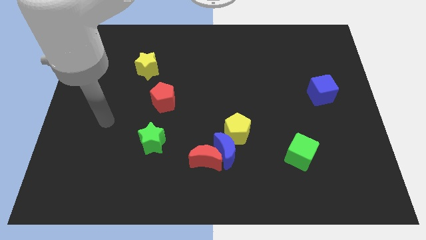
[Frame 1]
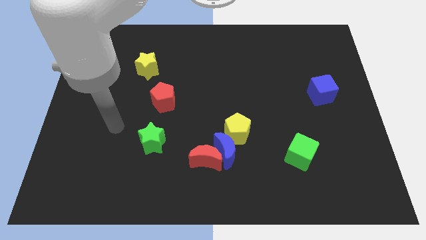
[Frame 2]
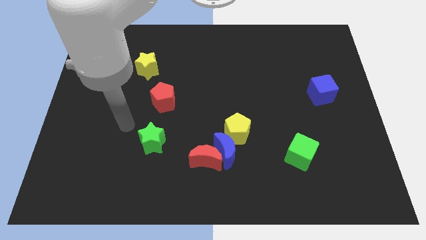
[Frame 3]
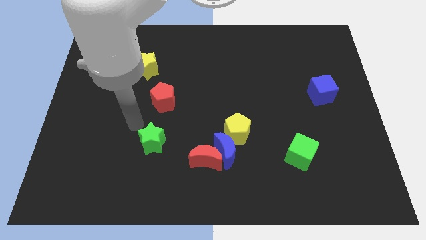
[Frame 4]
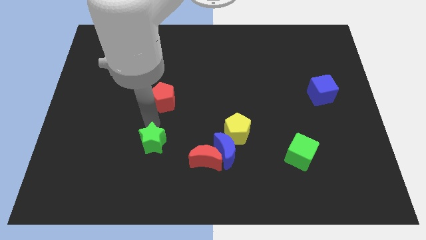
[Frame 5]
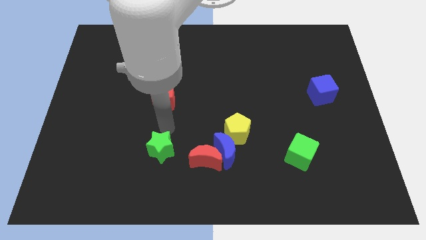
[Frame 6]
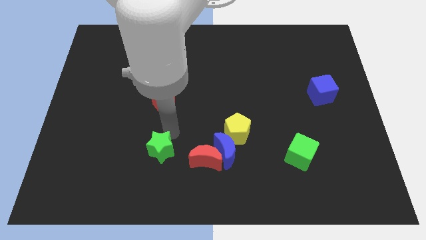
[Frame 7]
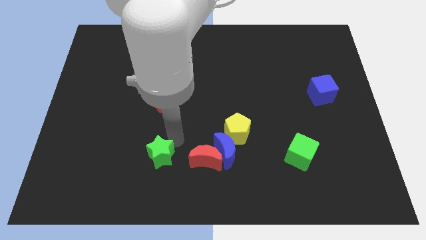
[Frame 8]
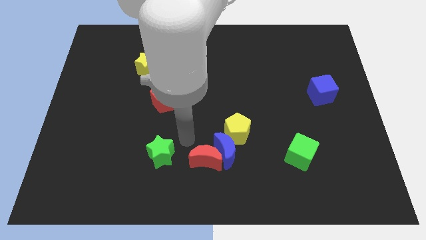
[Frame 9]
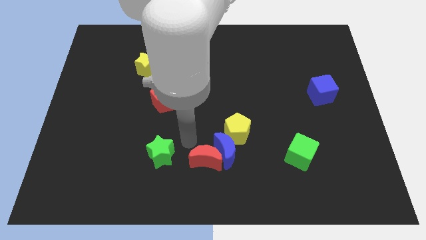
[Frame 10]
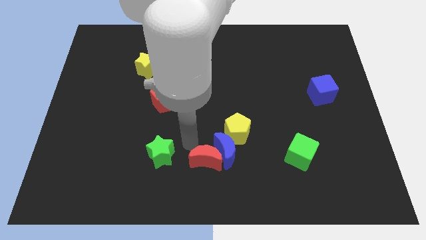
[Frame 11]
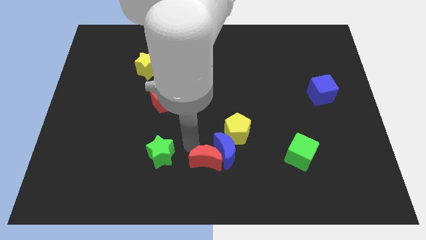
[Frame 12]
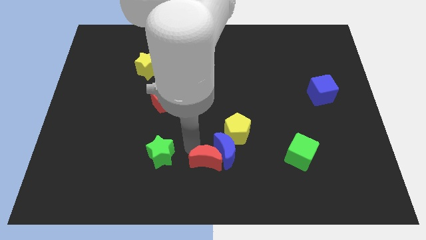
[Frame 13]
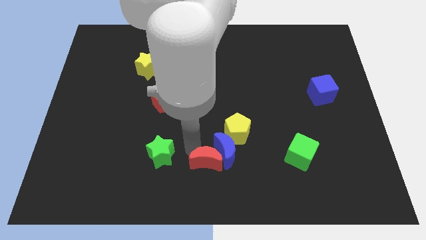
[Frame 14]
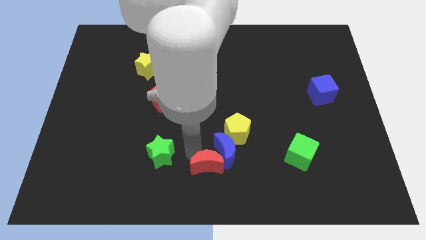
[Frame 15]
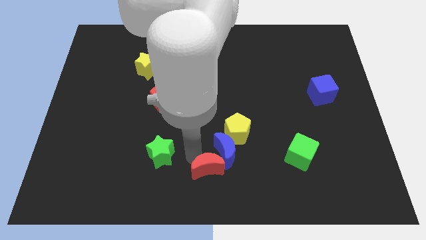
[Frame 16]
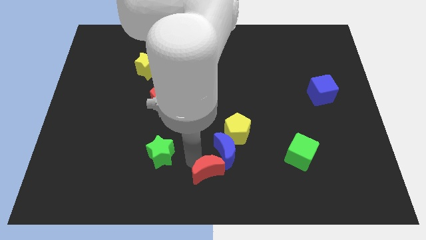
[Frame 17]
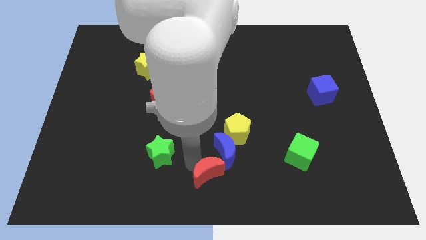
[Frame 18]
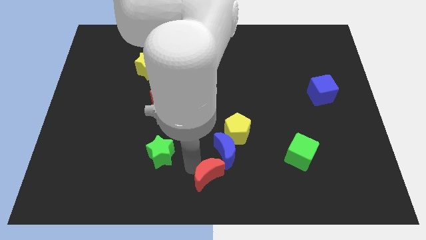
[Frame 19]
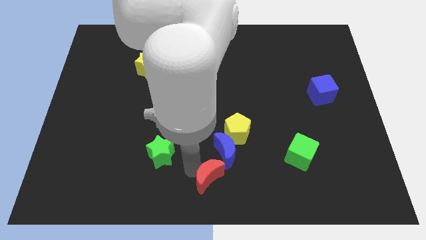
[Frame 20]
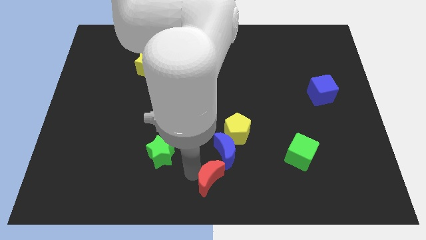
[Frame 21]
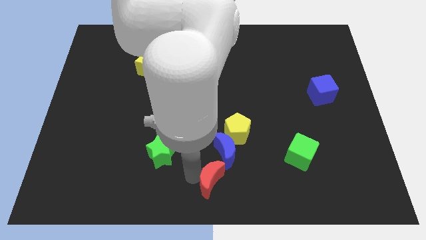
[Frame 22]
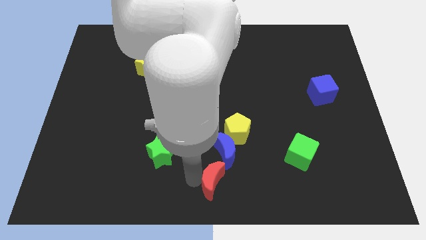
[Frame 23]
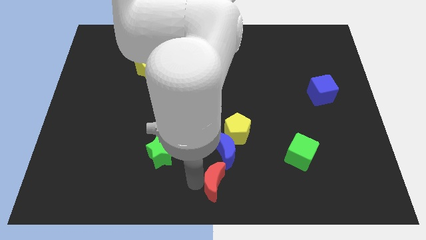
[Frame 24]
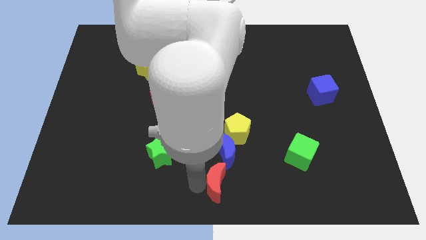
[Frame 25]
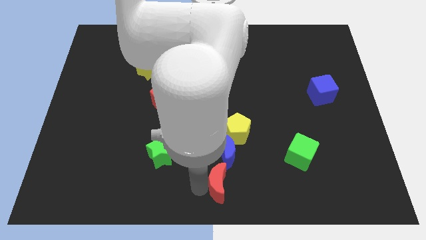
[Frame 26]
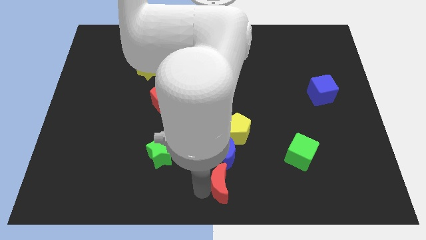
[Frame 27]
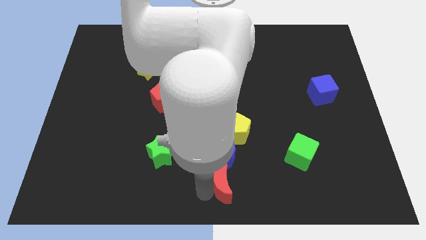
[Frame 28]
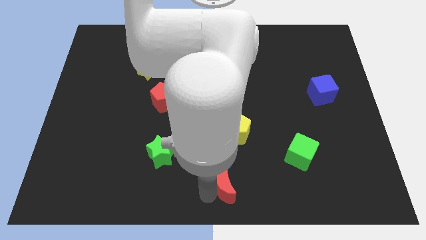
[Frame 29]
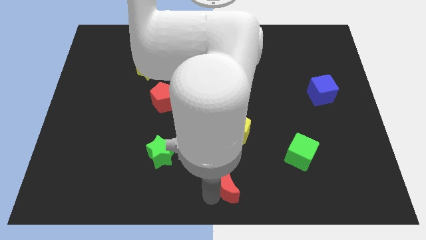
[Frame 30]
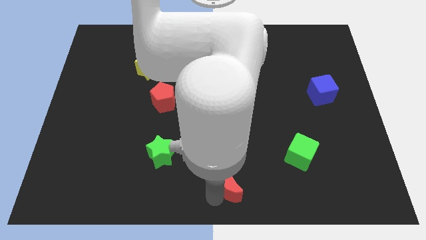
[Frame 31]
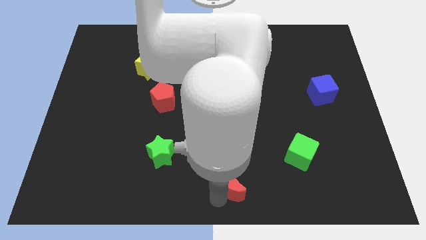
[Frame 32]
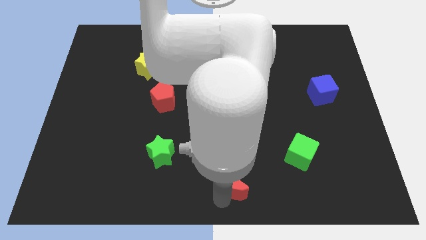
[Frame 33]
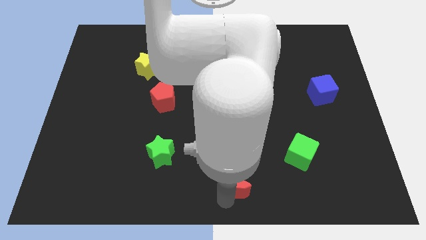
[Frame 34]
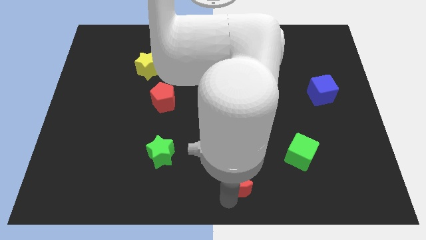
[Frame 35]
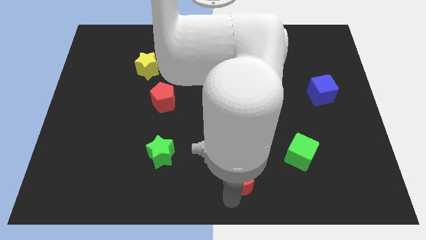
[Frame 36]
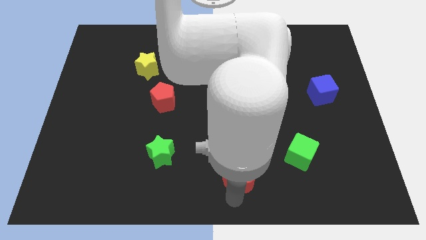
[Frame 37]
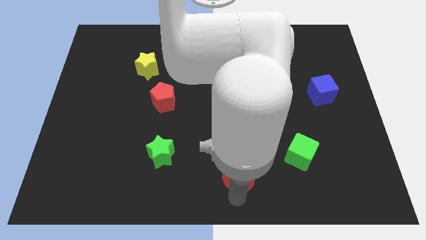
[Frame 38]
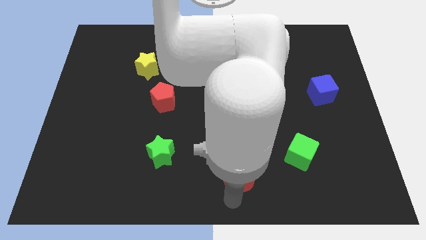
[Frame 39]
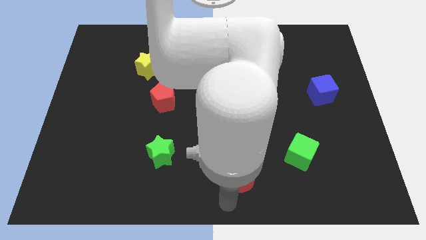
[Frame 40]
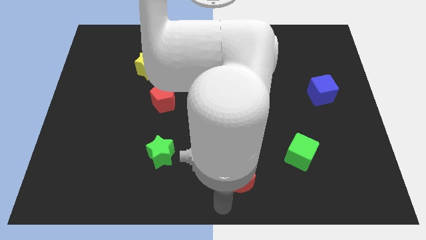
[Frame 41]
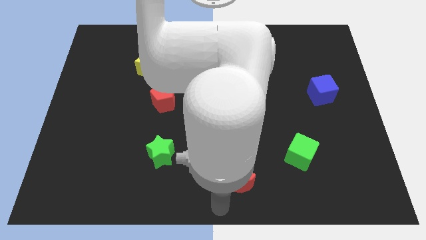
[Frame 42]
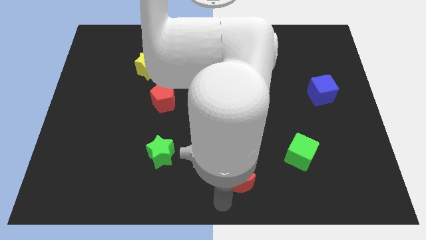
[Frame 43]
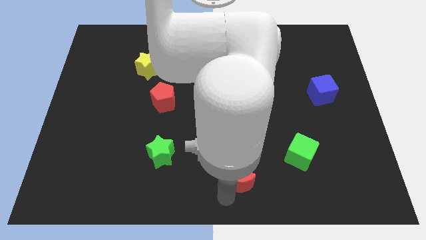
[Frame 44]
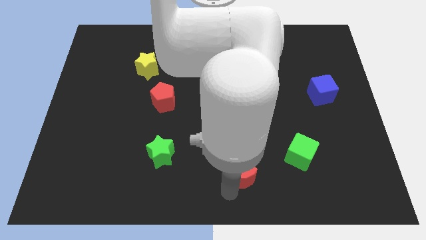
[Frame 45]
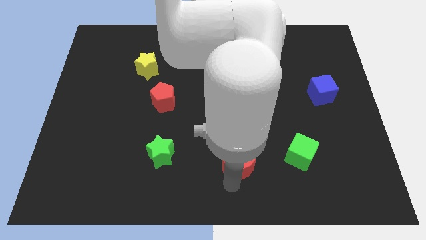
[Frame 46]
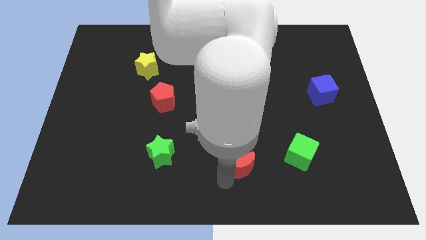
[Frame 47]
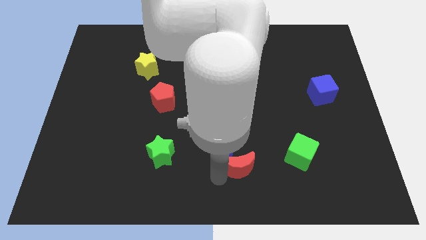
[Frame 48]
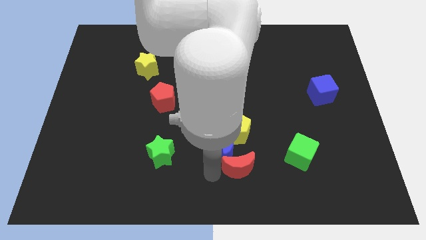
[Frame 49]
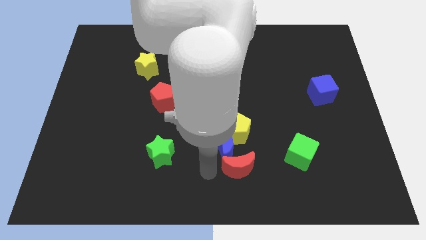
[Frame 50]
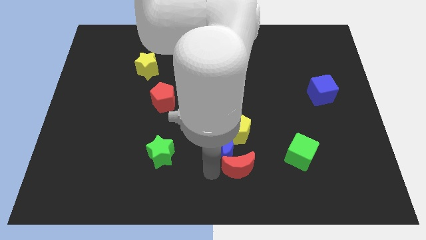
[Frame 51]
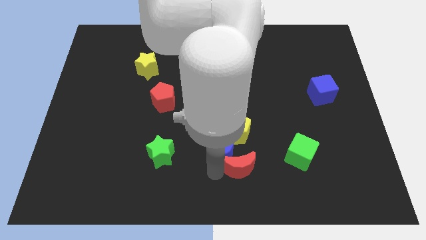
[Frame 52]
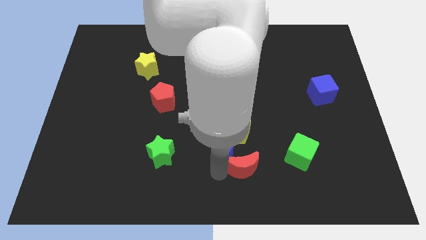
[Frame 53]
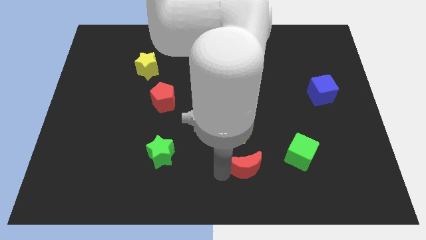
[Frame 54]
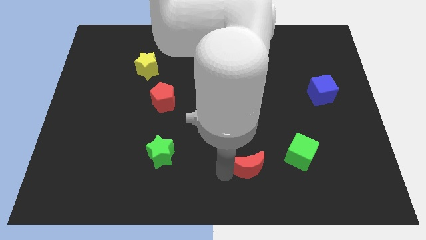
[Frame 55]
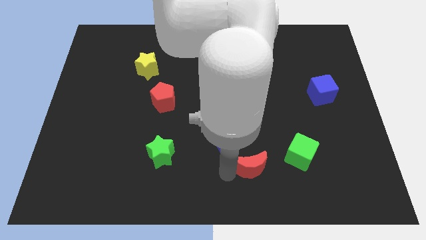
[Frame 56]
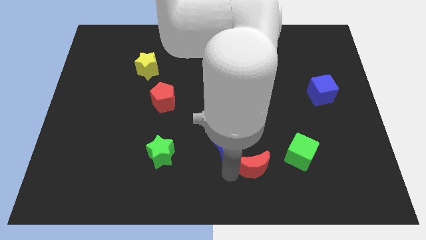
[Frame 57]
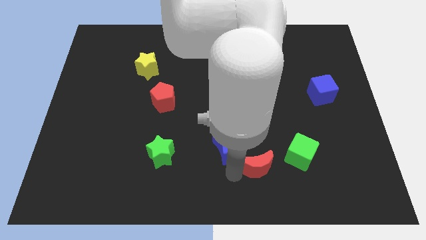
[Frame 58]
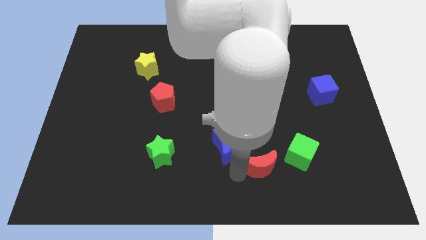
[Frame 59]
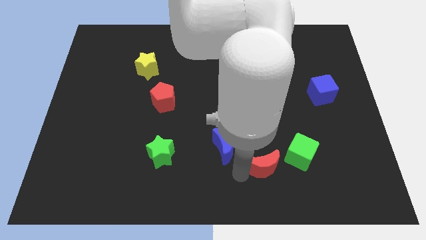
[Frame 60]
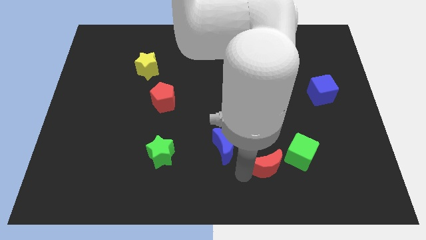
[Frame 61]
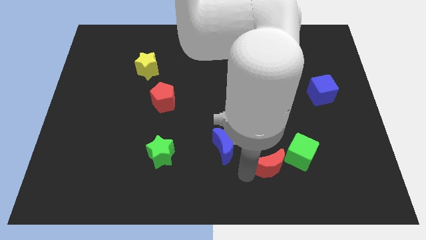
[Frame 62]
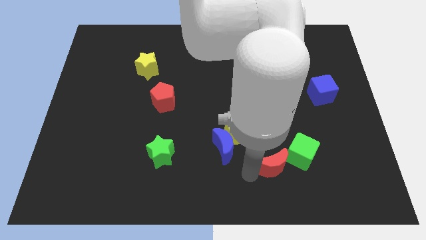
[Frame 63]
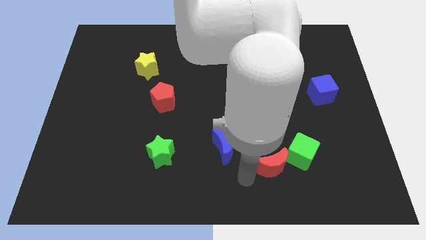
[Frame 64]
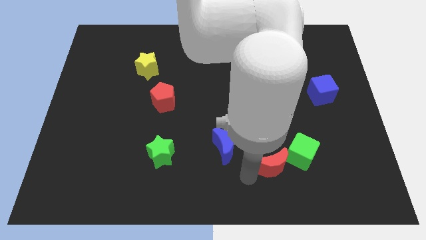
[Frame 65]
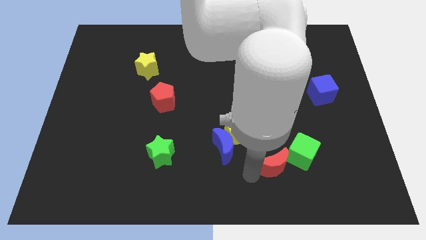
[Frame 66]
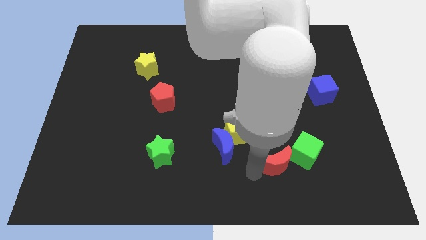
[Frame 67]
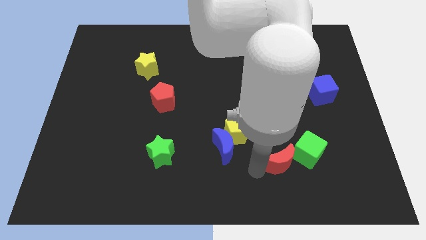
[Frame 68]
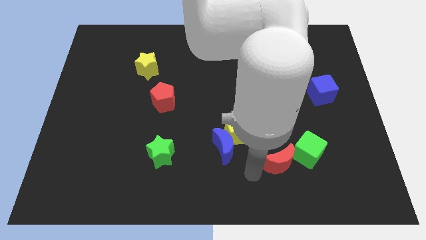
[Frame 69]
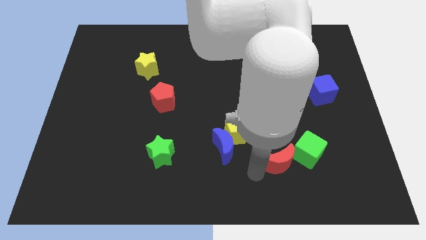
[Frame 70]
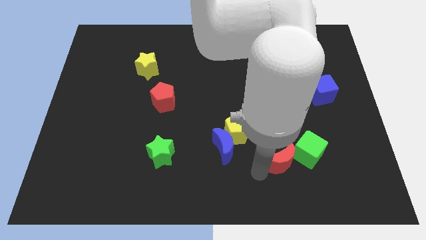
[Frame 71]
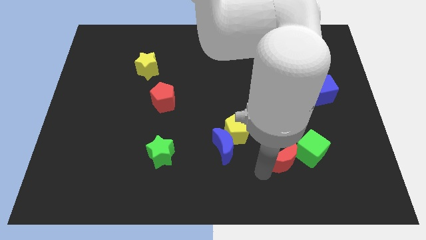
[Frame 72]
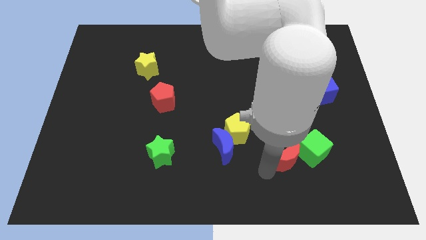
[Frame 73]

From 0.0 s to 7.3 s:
put the red moon next to the green cube
